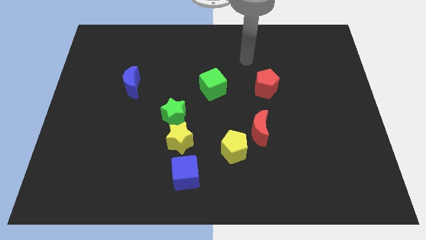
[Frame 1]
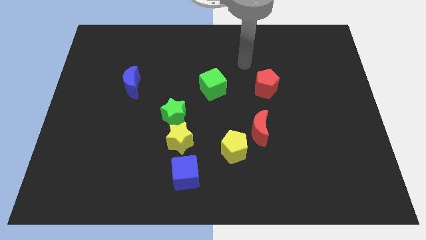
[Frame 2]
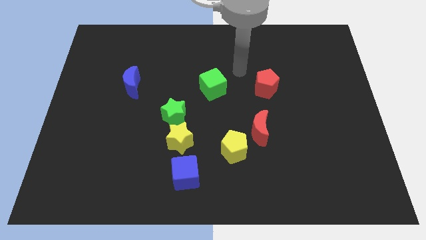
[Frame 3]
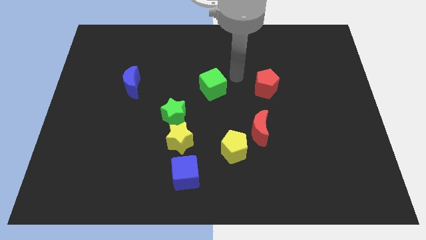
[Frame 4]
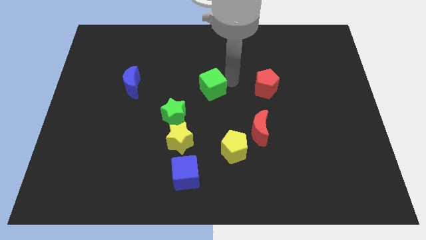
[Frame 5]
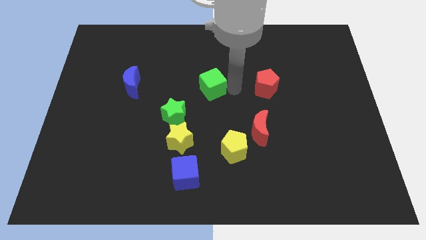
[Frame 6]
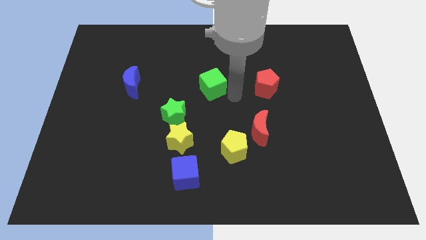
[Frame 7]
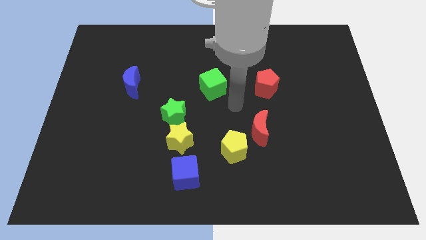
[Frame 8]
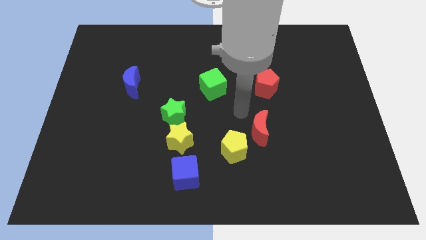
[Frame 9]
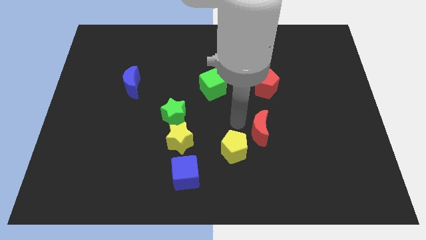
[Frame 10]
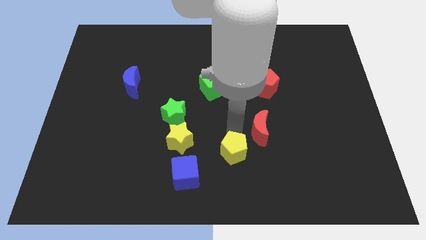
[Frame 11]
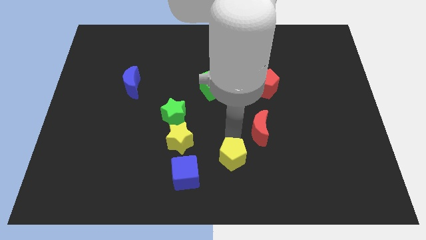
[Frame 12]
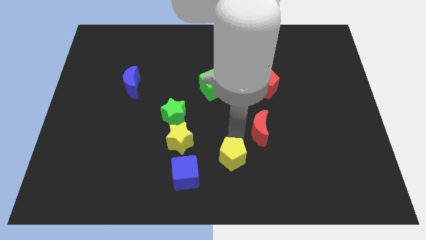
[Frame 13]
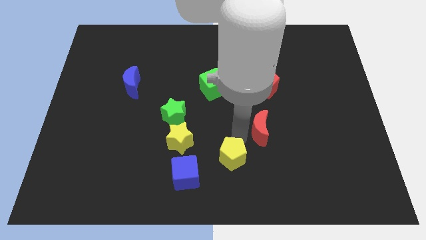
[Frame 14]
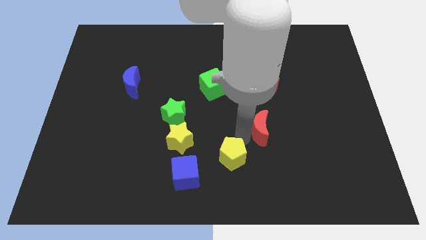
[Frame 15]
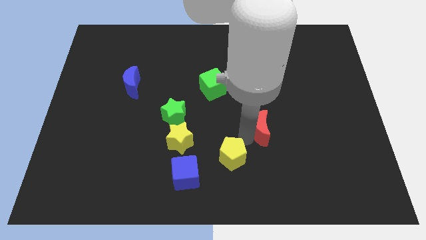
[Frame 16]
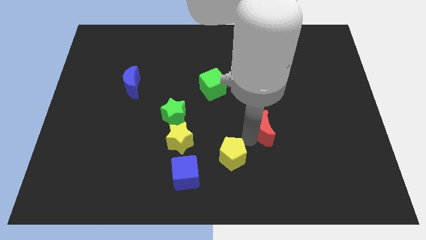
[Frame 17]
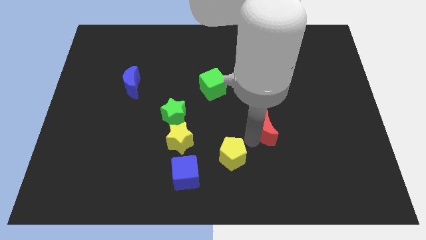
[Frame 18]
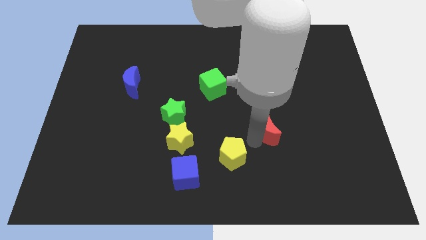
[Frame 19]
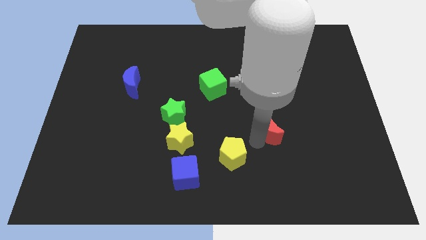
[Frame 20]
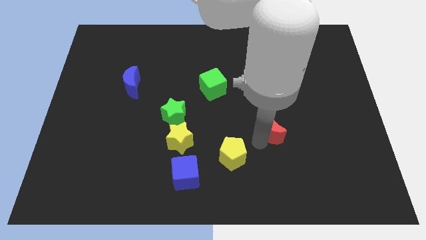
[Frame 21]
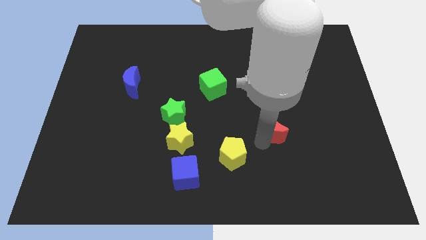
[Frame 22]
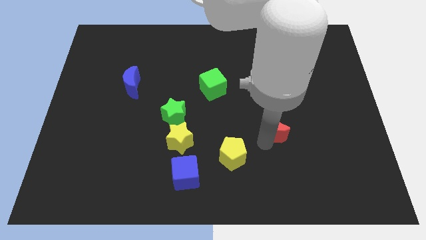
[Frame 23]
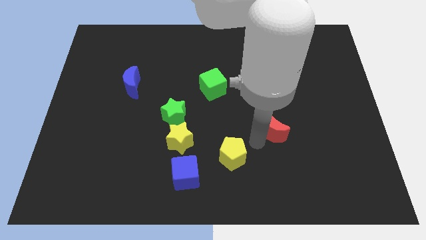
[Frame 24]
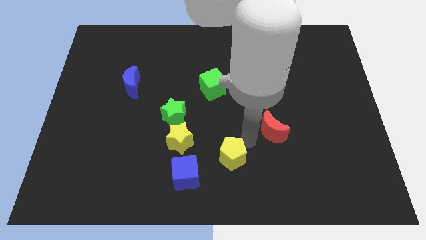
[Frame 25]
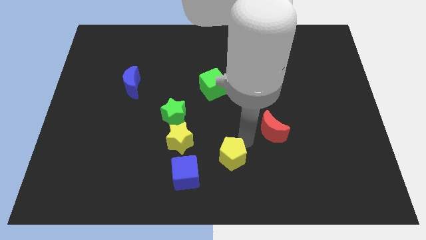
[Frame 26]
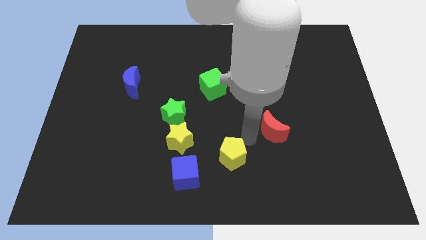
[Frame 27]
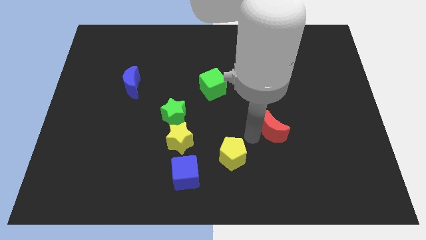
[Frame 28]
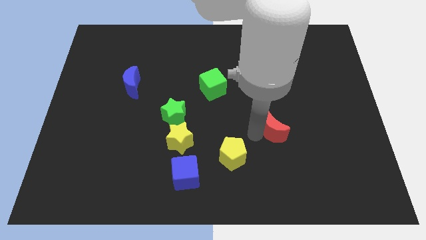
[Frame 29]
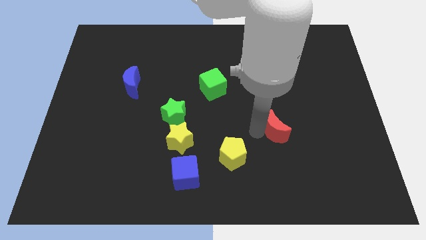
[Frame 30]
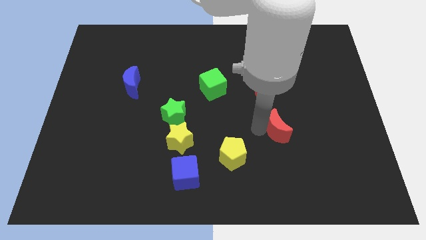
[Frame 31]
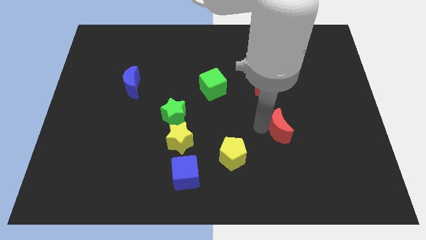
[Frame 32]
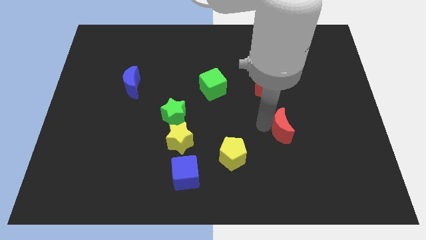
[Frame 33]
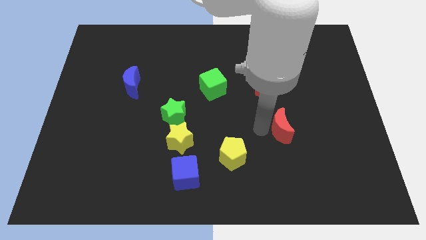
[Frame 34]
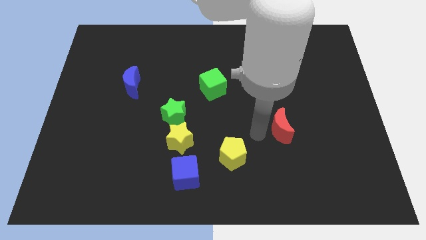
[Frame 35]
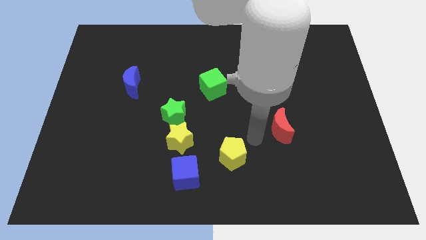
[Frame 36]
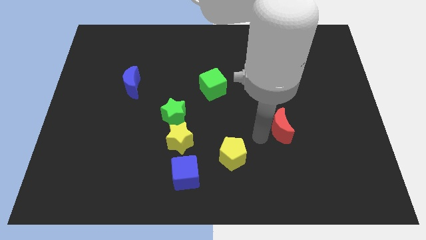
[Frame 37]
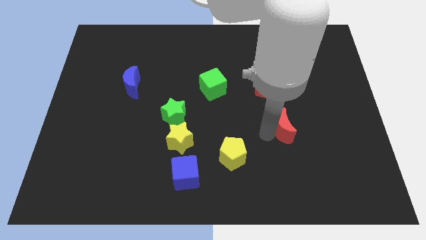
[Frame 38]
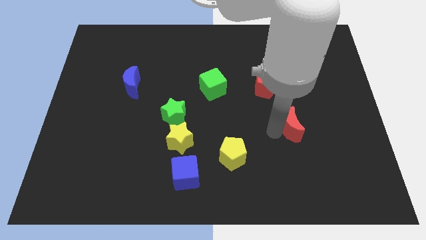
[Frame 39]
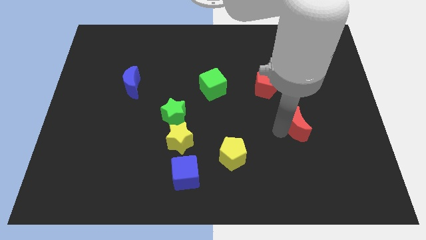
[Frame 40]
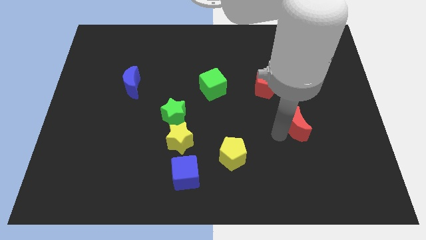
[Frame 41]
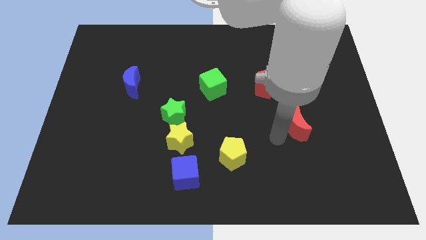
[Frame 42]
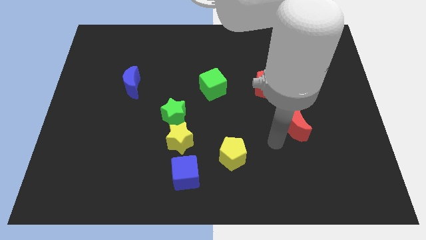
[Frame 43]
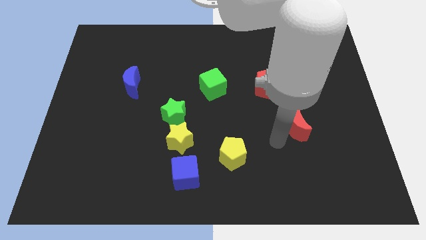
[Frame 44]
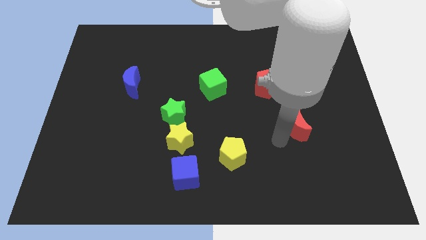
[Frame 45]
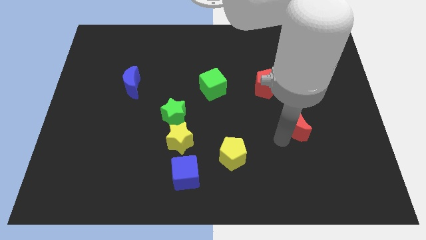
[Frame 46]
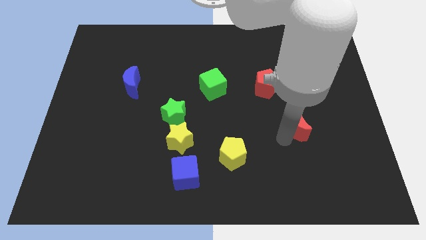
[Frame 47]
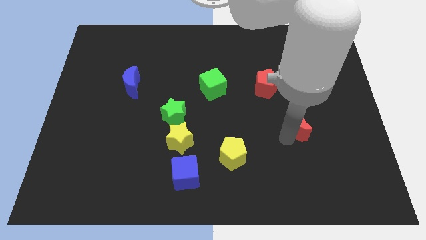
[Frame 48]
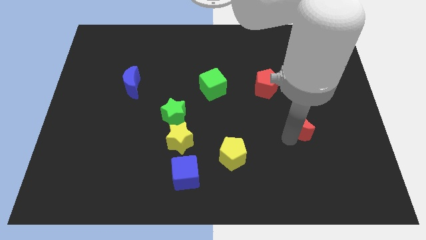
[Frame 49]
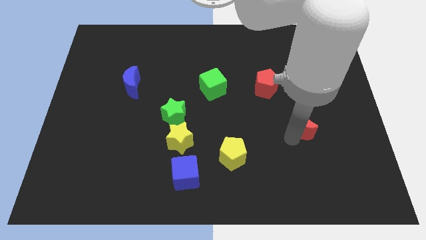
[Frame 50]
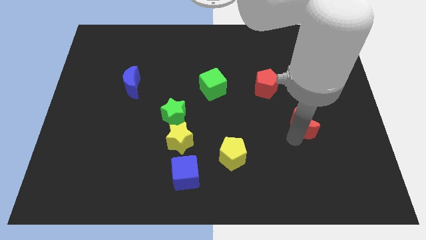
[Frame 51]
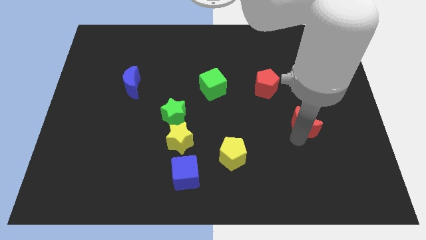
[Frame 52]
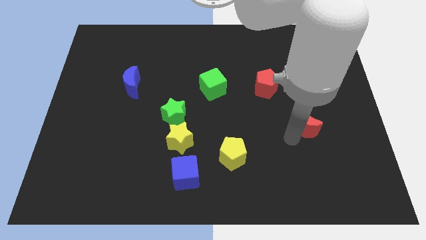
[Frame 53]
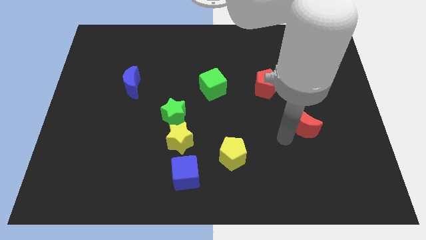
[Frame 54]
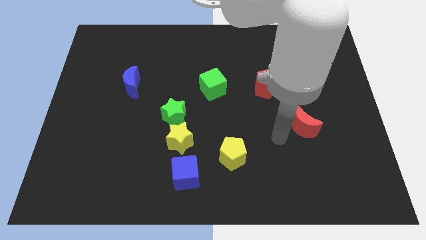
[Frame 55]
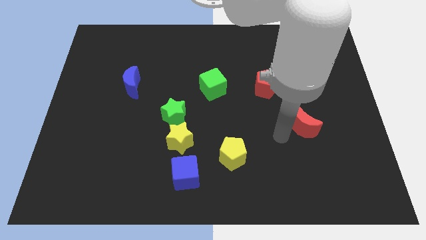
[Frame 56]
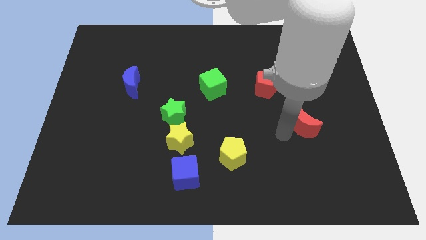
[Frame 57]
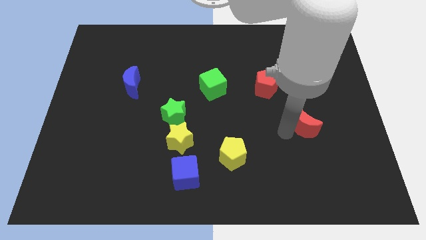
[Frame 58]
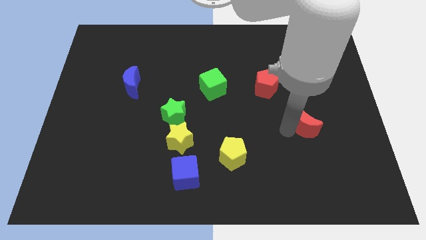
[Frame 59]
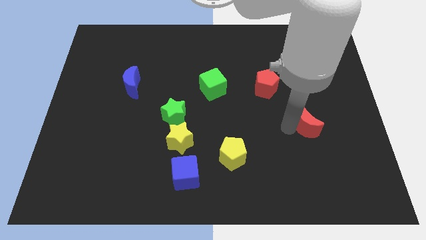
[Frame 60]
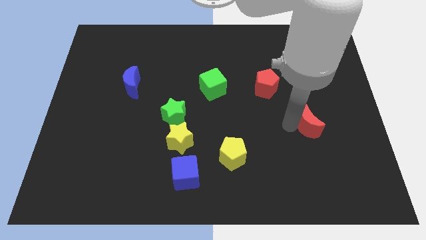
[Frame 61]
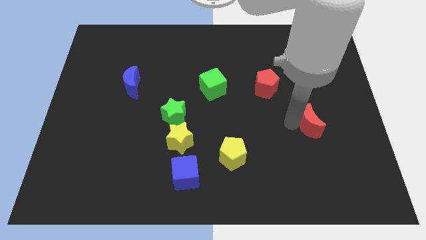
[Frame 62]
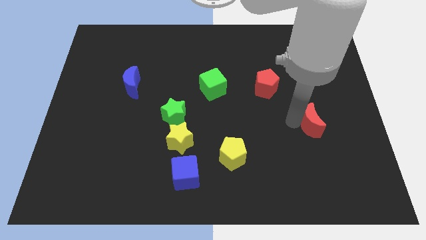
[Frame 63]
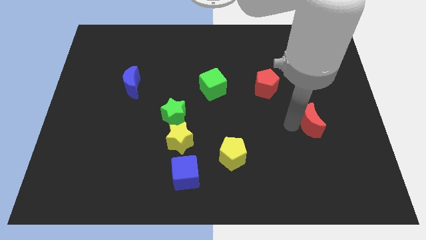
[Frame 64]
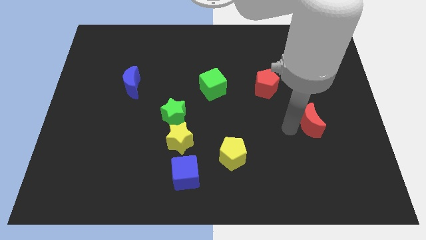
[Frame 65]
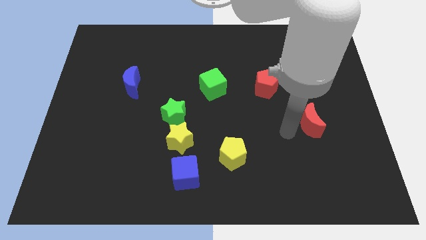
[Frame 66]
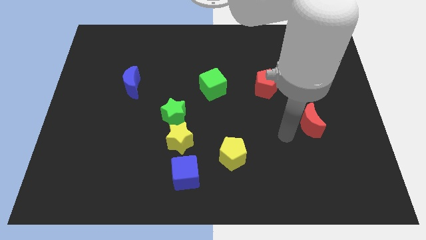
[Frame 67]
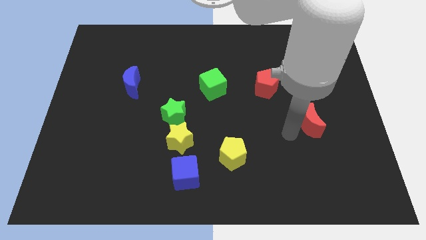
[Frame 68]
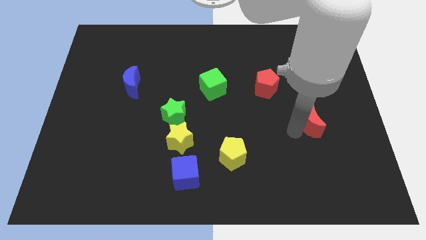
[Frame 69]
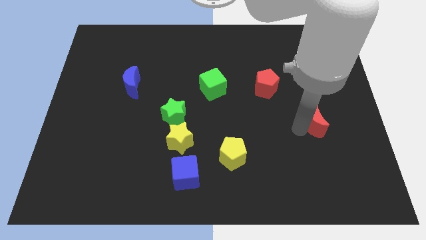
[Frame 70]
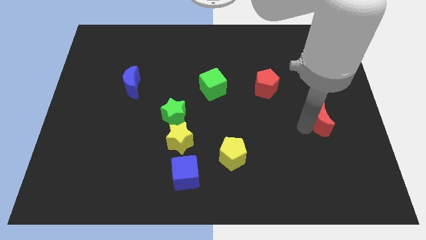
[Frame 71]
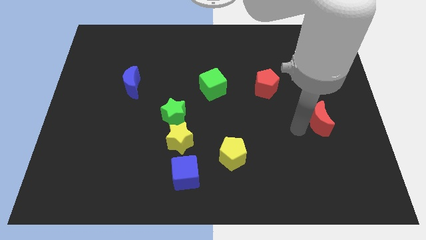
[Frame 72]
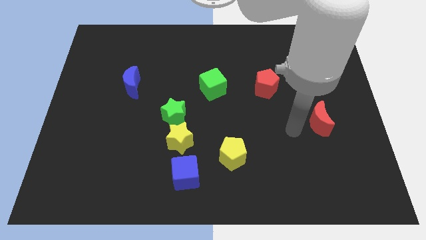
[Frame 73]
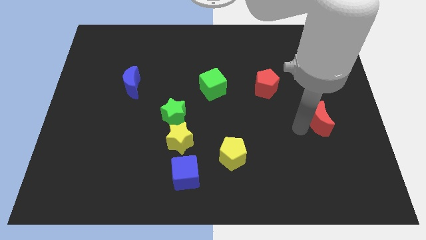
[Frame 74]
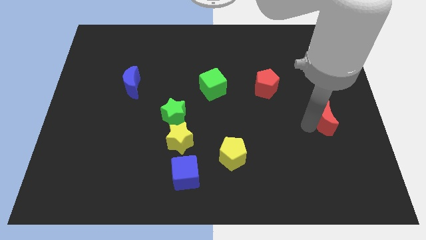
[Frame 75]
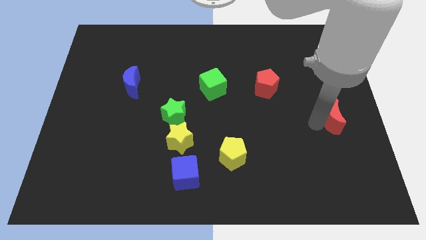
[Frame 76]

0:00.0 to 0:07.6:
push the red moon to the right side
